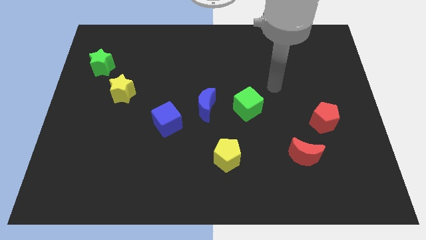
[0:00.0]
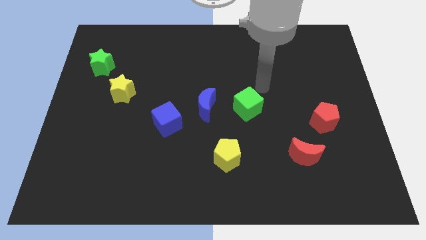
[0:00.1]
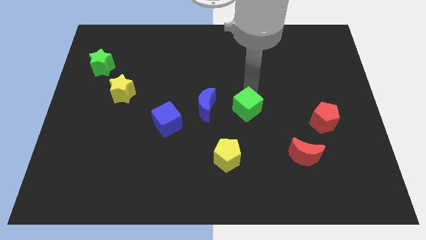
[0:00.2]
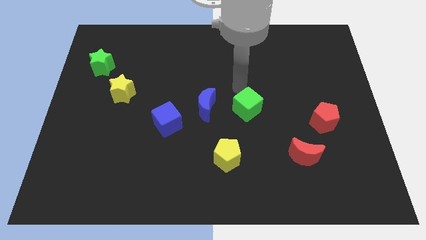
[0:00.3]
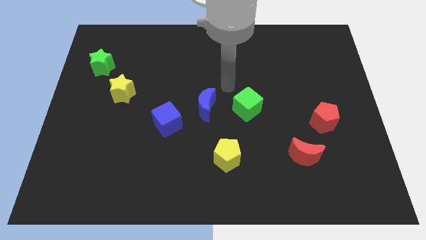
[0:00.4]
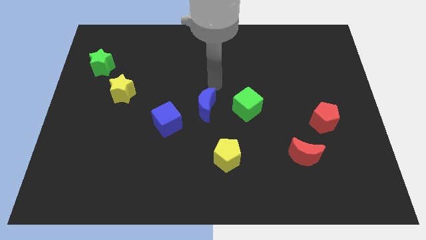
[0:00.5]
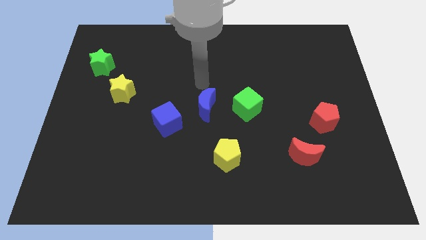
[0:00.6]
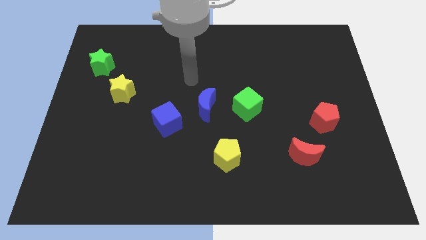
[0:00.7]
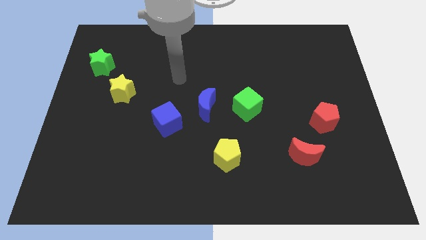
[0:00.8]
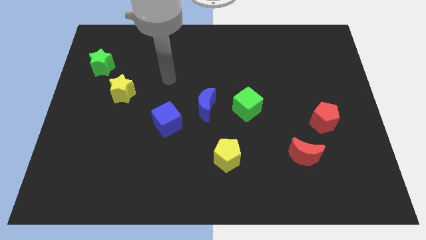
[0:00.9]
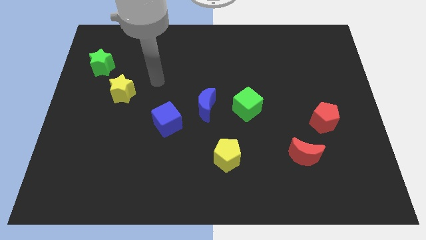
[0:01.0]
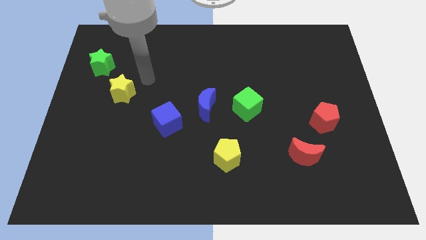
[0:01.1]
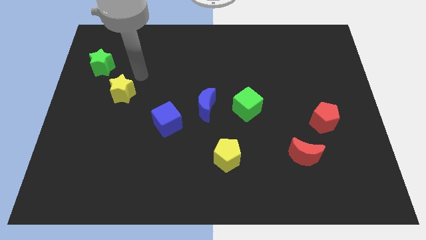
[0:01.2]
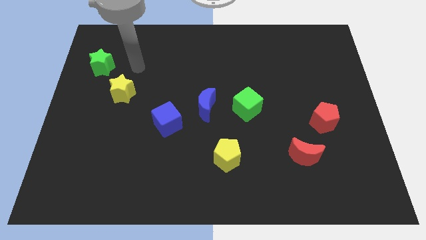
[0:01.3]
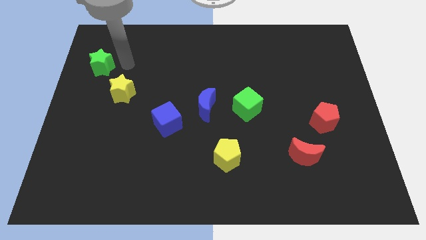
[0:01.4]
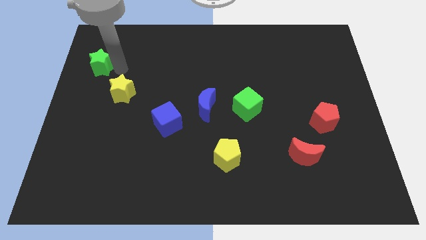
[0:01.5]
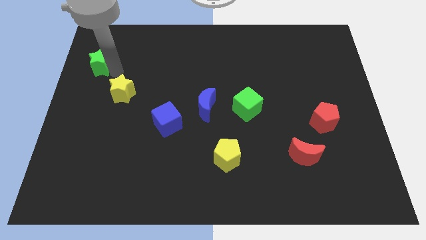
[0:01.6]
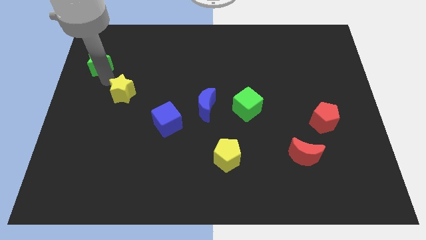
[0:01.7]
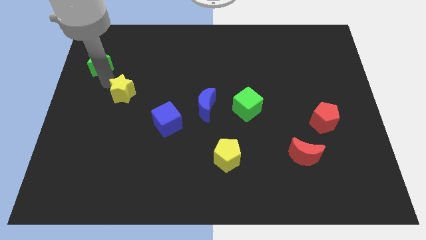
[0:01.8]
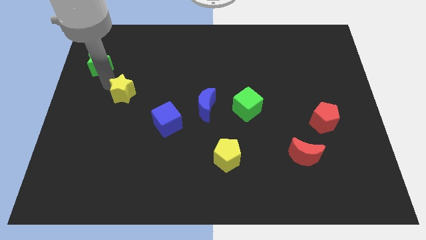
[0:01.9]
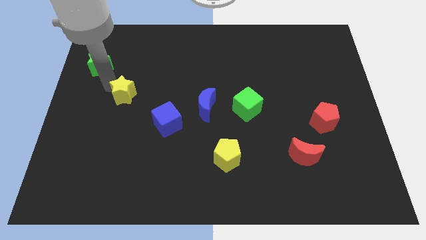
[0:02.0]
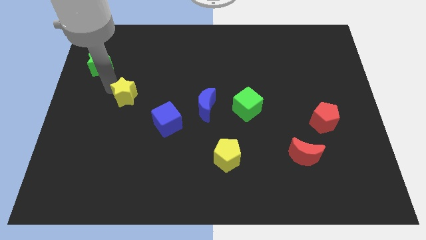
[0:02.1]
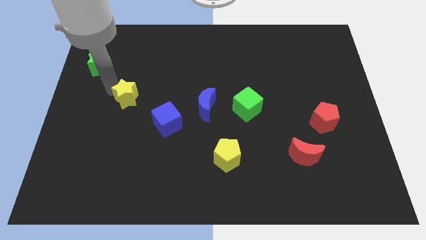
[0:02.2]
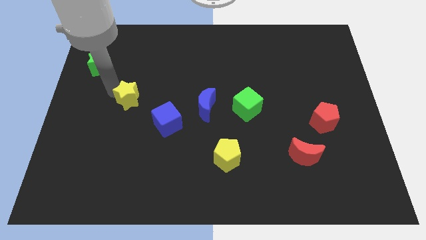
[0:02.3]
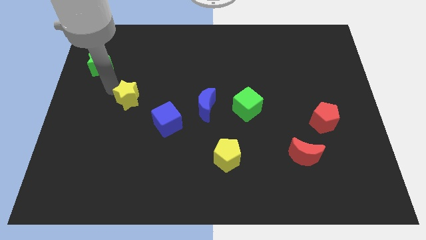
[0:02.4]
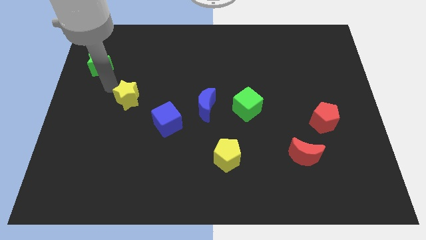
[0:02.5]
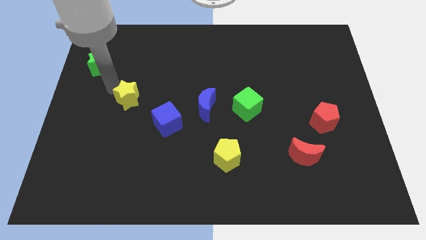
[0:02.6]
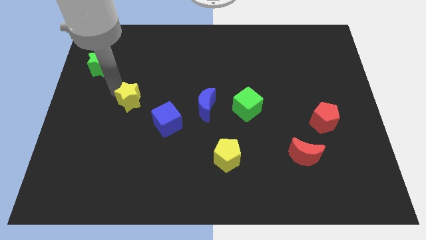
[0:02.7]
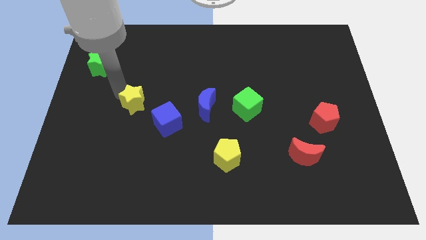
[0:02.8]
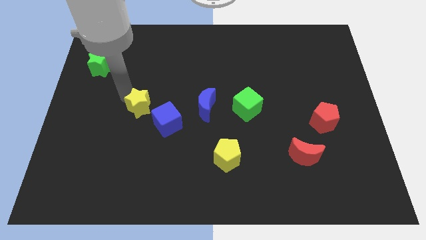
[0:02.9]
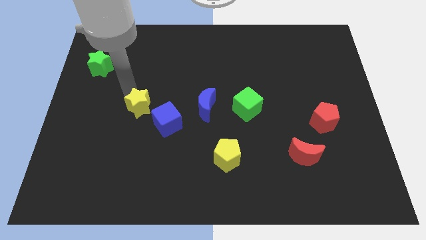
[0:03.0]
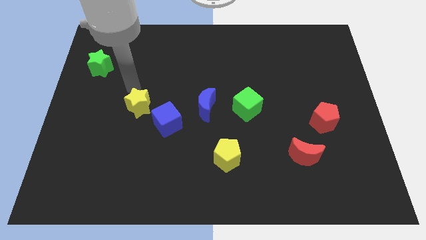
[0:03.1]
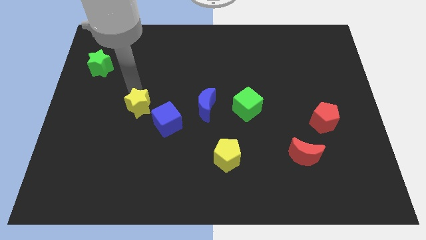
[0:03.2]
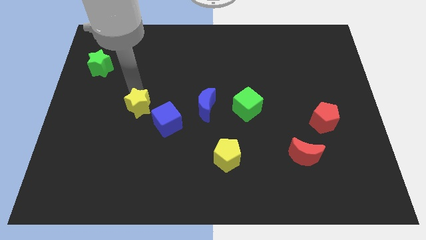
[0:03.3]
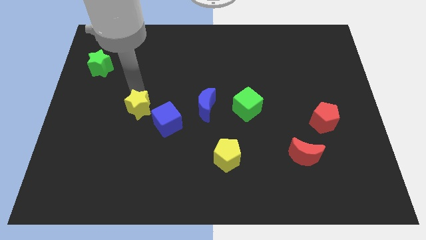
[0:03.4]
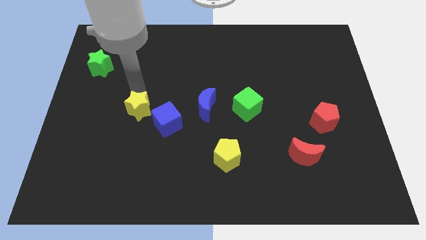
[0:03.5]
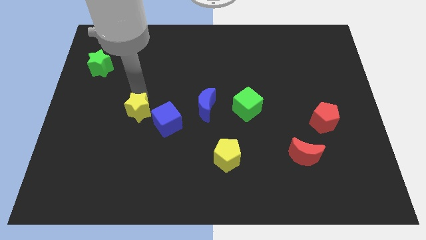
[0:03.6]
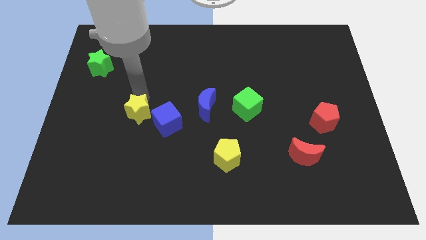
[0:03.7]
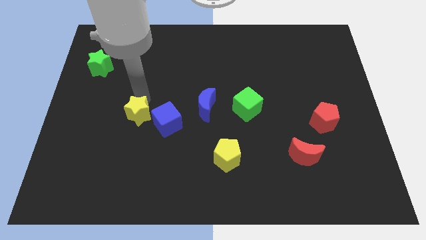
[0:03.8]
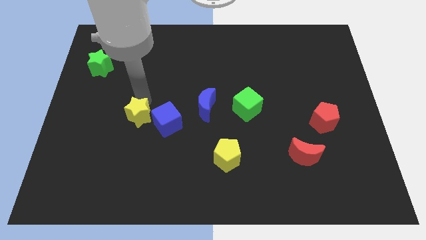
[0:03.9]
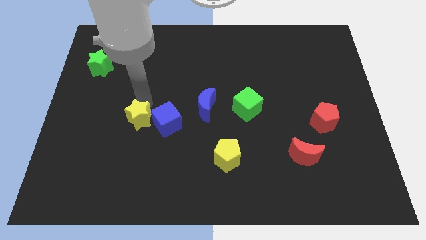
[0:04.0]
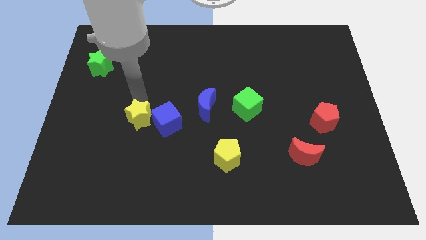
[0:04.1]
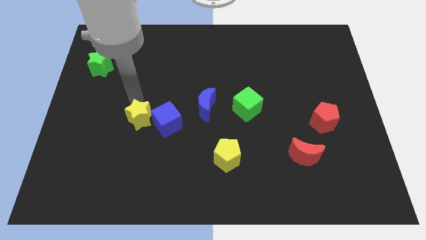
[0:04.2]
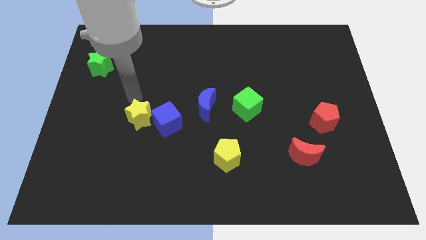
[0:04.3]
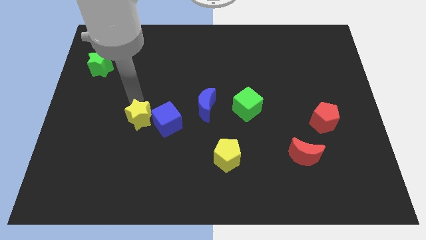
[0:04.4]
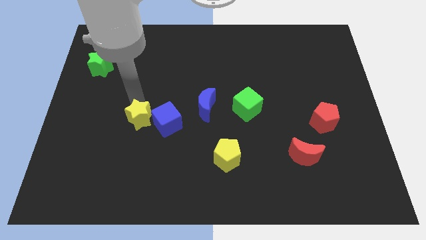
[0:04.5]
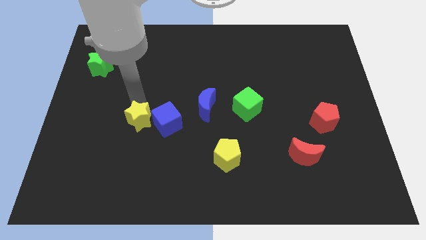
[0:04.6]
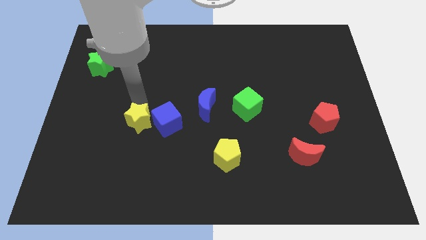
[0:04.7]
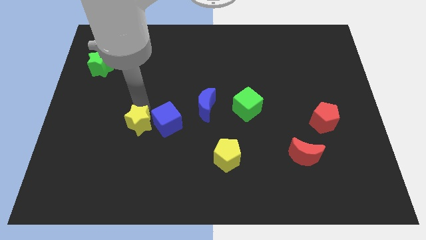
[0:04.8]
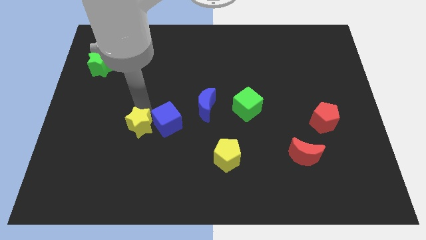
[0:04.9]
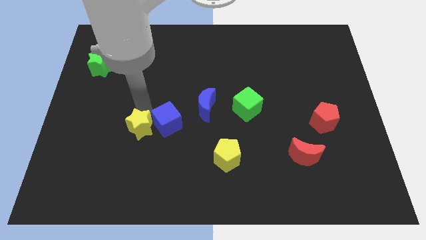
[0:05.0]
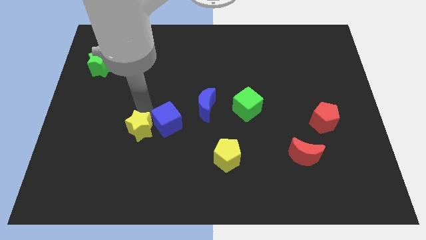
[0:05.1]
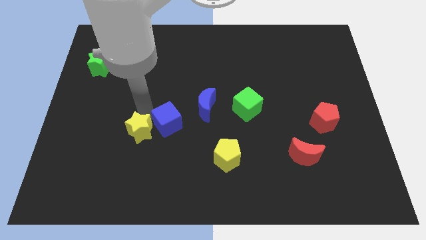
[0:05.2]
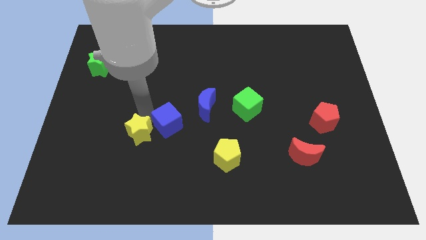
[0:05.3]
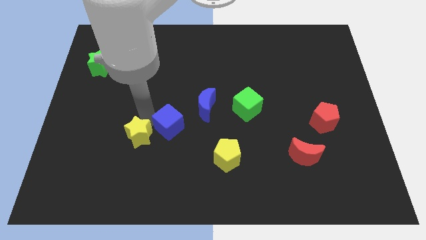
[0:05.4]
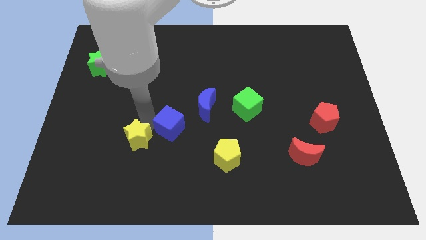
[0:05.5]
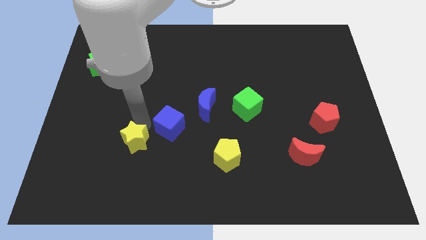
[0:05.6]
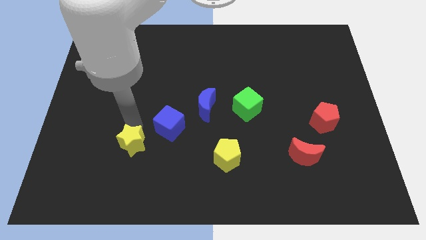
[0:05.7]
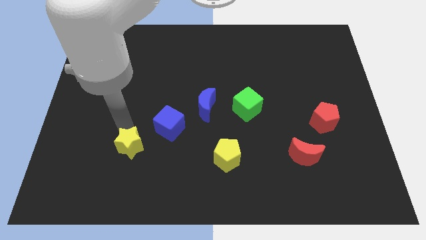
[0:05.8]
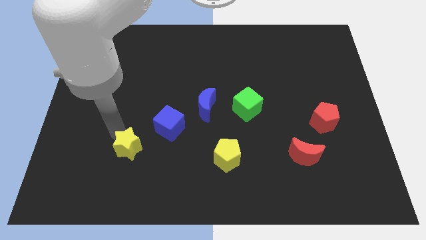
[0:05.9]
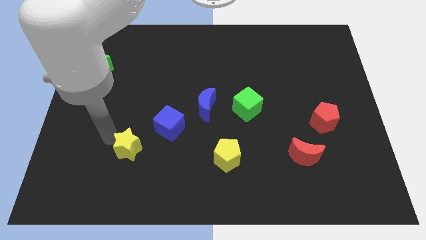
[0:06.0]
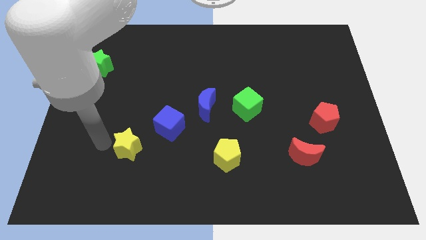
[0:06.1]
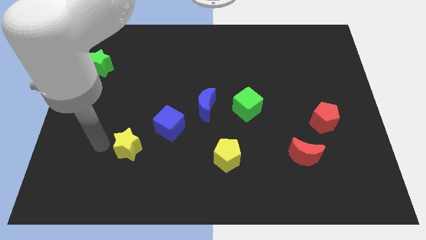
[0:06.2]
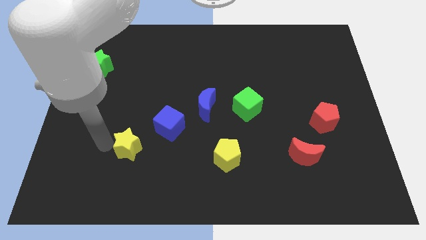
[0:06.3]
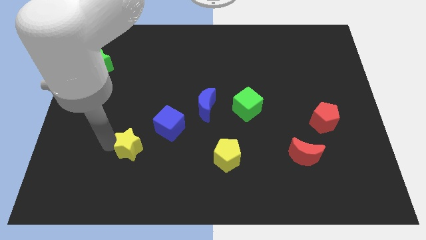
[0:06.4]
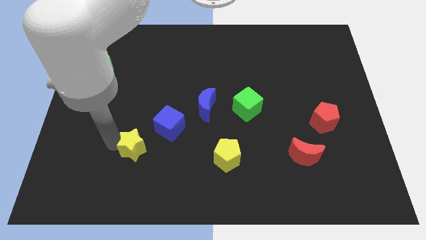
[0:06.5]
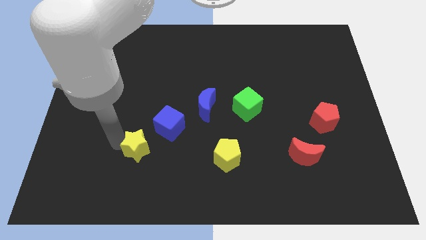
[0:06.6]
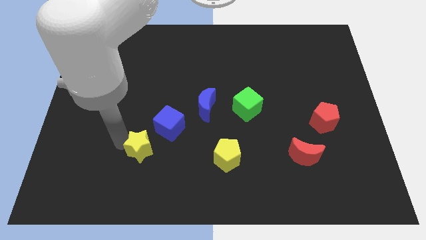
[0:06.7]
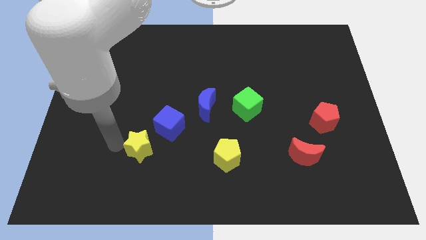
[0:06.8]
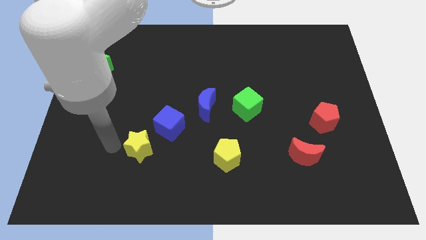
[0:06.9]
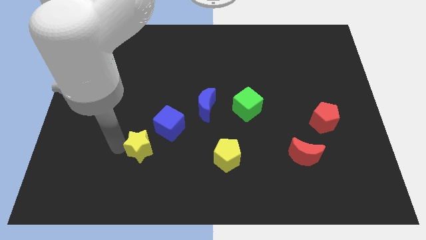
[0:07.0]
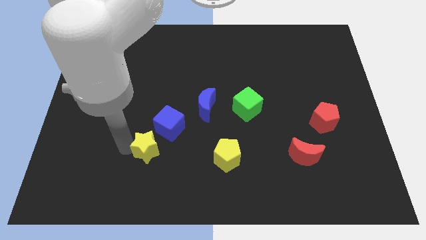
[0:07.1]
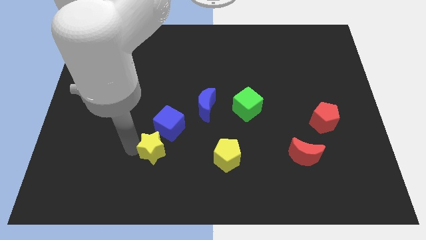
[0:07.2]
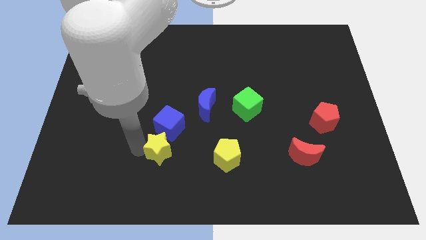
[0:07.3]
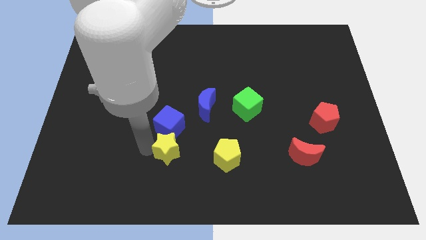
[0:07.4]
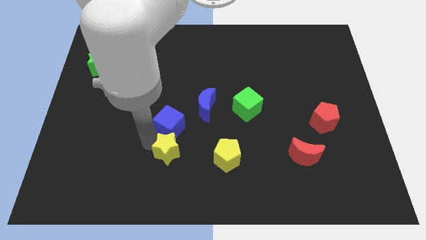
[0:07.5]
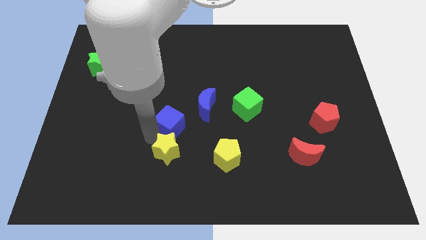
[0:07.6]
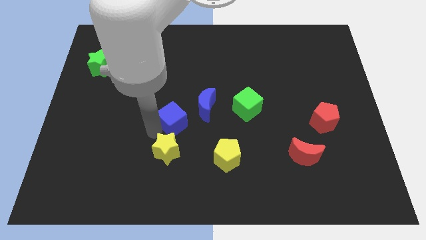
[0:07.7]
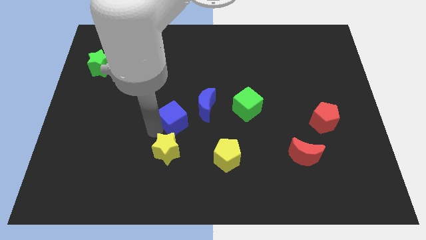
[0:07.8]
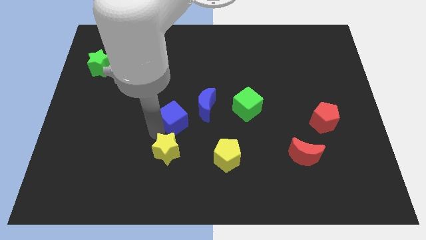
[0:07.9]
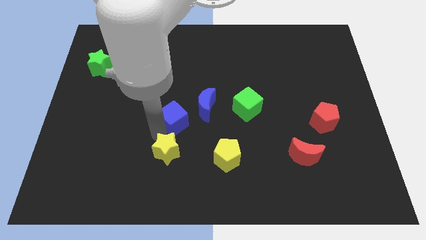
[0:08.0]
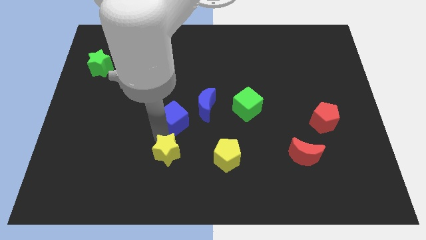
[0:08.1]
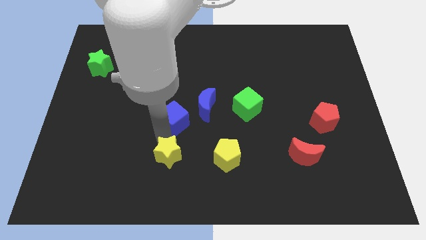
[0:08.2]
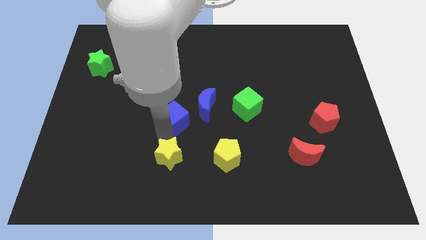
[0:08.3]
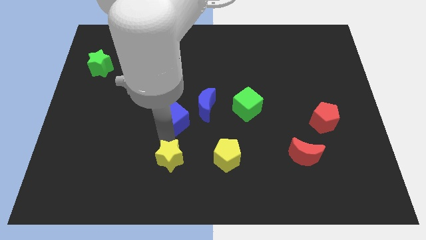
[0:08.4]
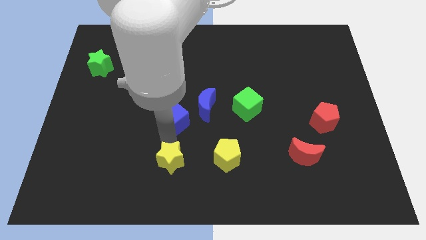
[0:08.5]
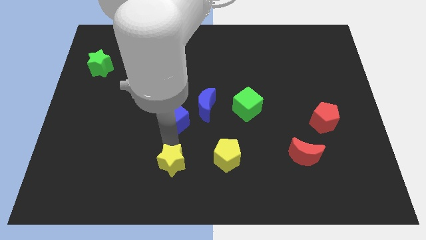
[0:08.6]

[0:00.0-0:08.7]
put the yellow star to the bottom side
